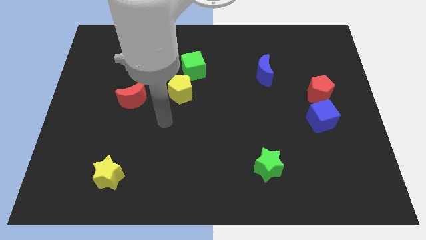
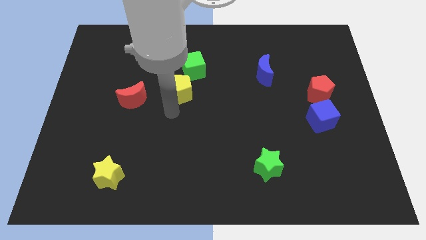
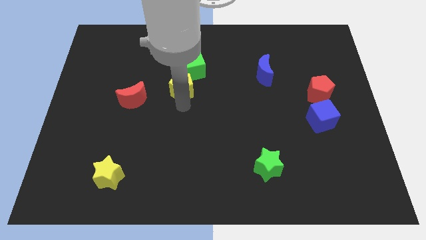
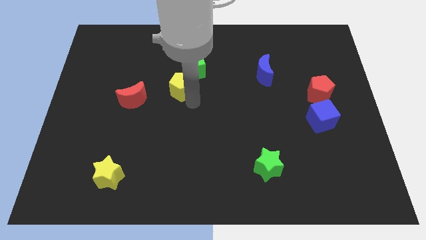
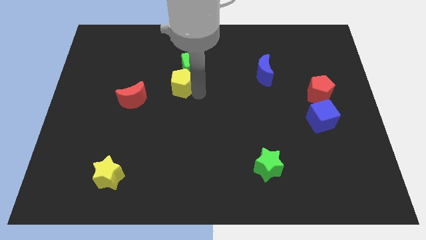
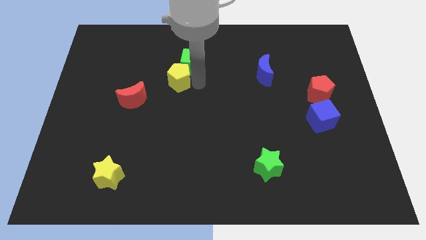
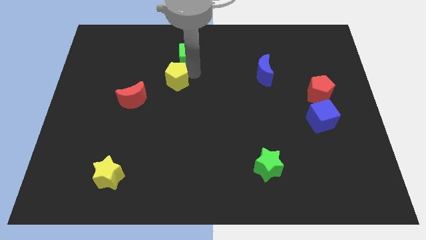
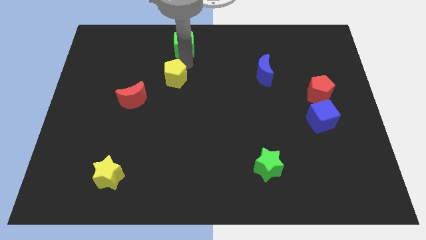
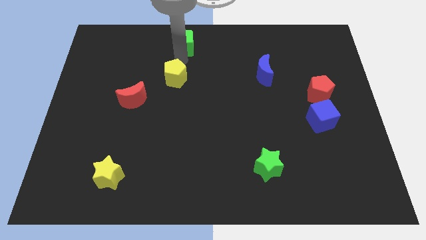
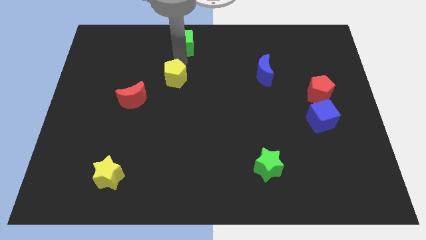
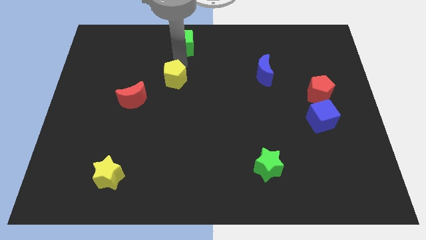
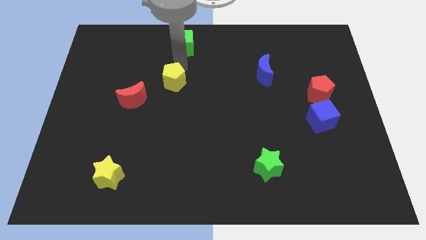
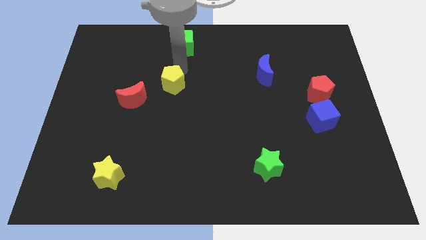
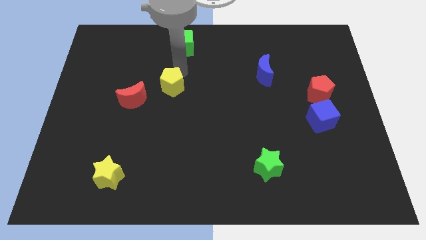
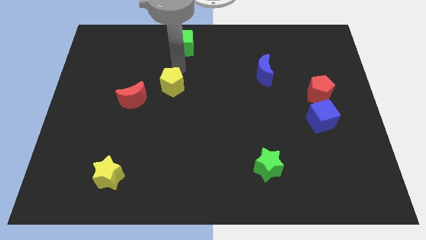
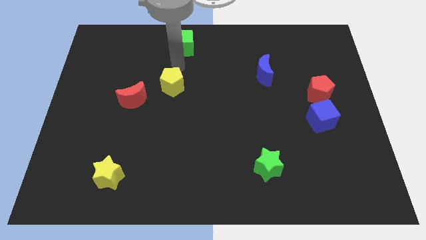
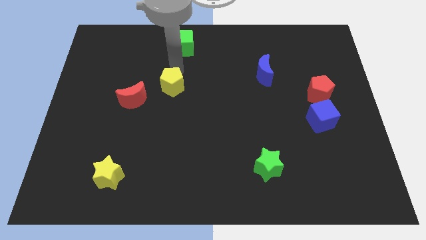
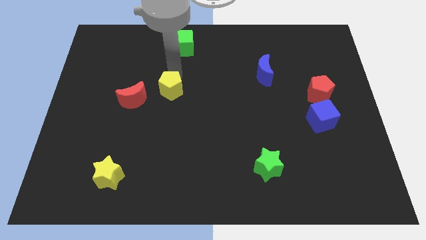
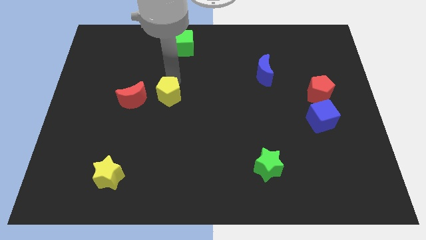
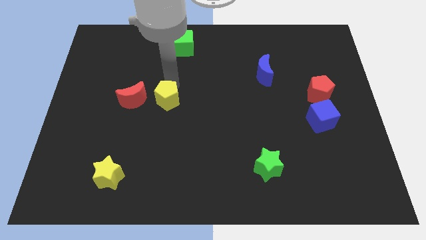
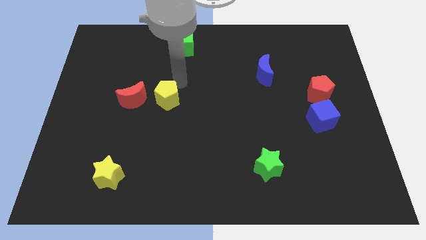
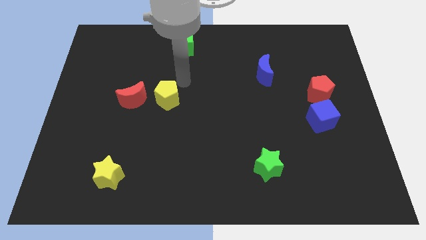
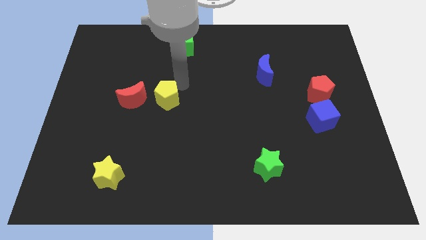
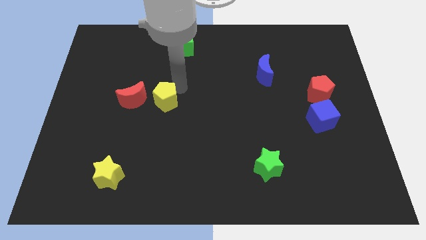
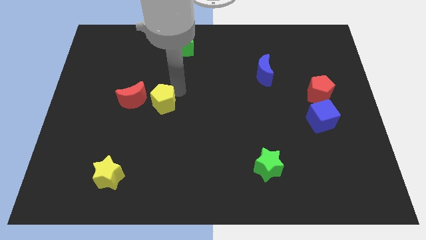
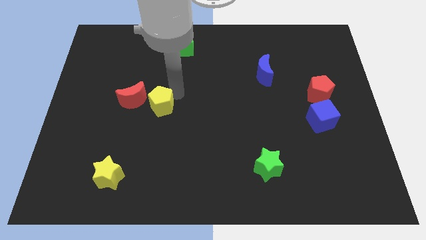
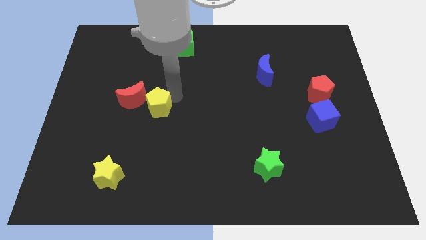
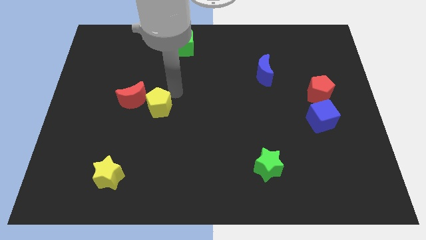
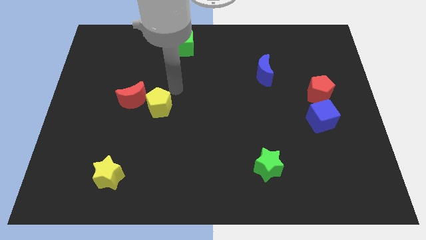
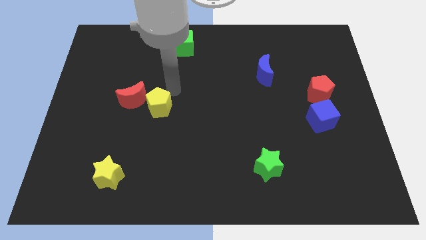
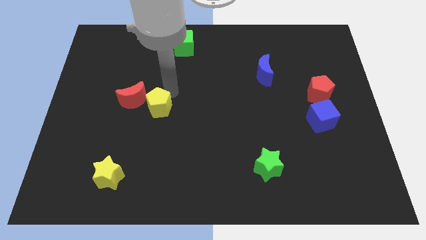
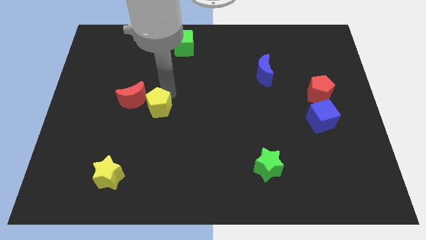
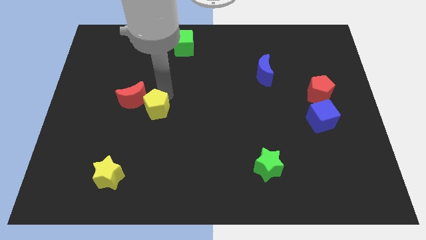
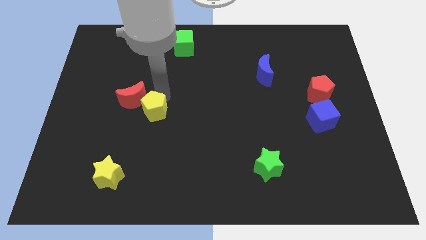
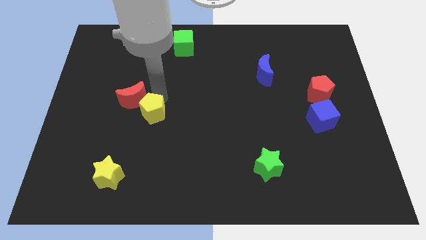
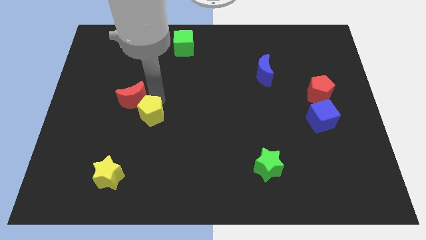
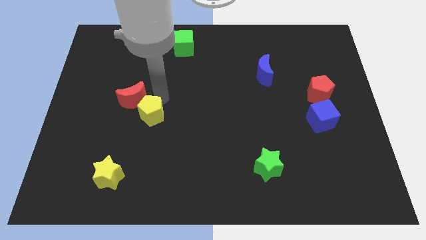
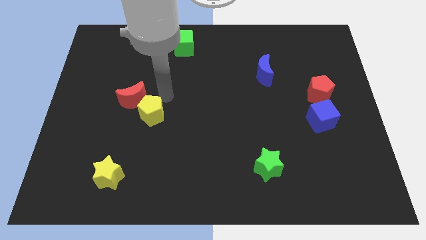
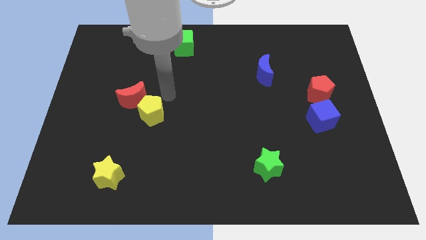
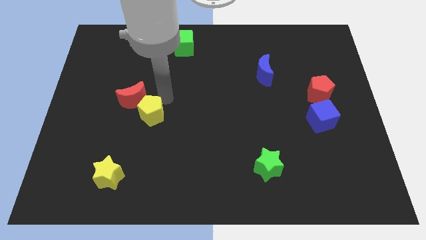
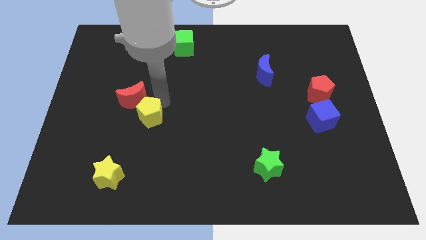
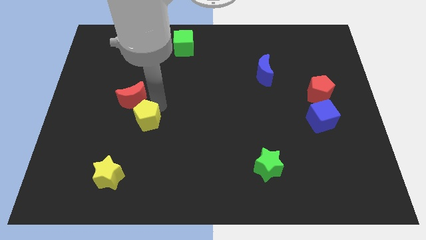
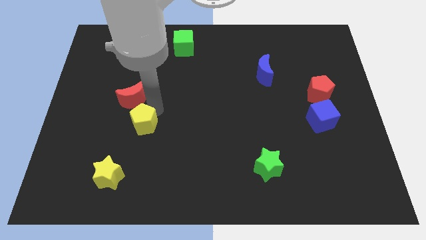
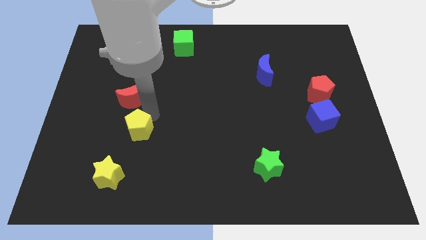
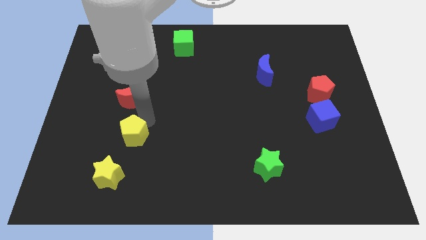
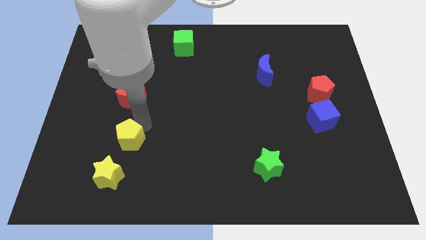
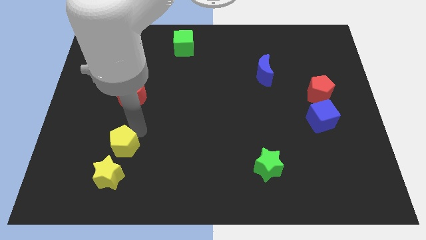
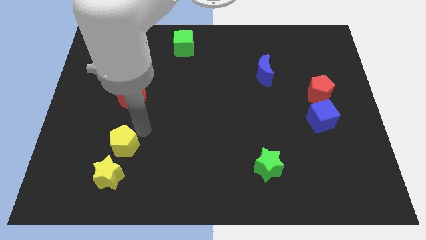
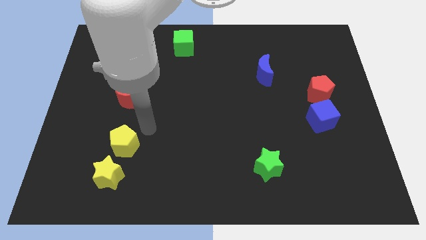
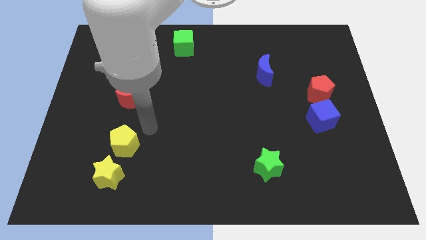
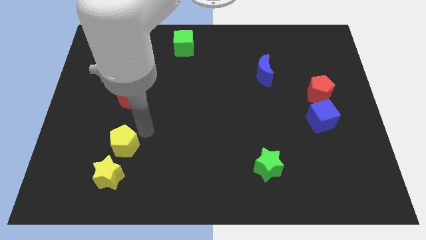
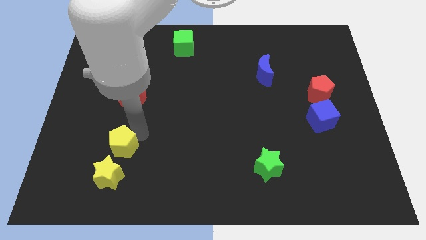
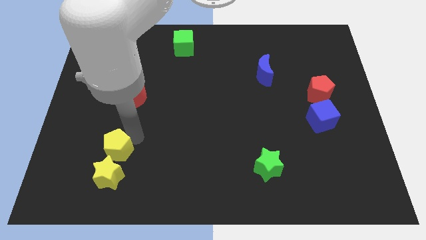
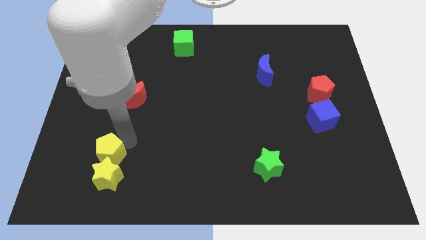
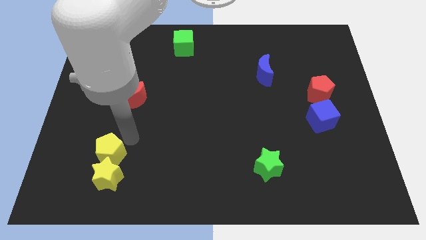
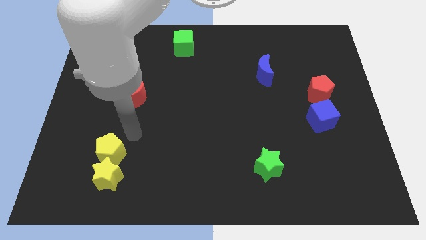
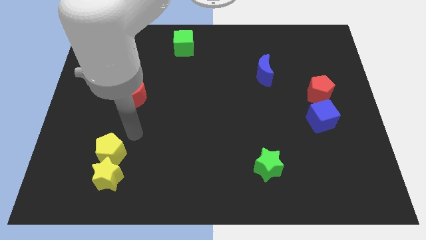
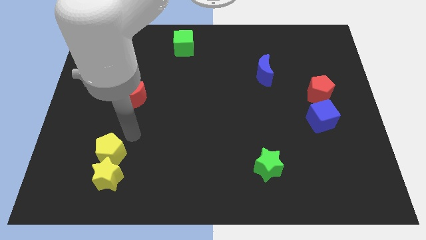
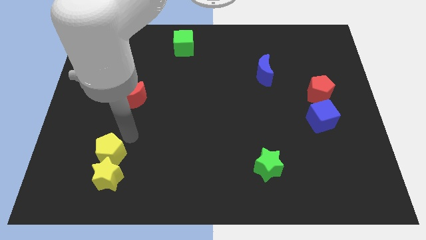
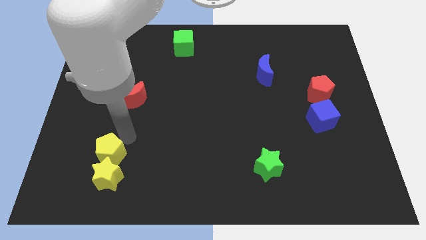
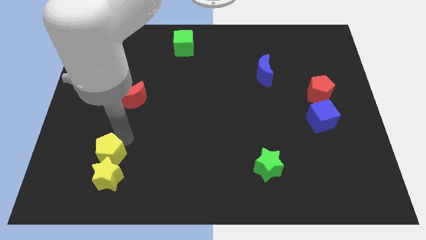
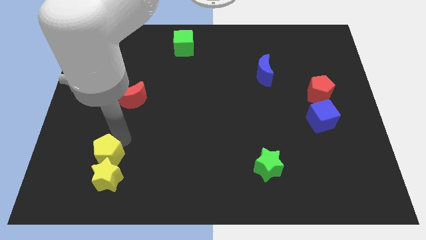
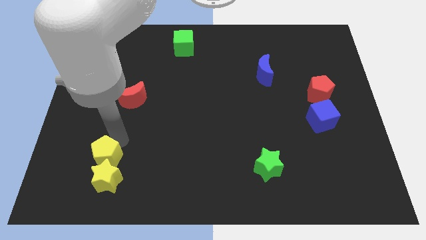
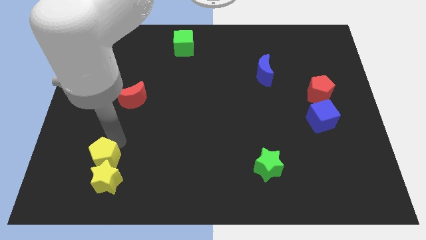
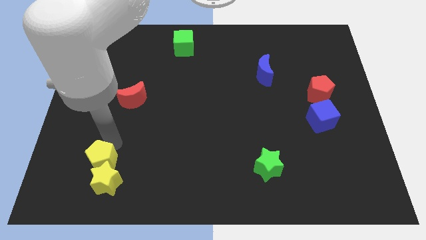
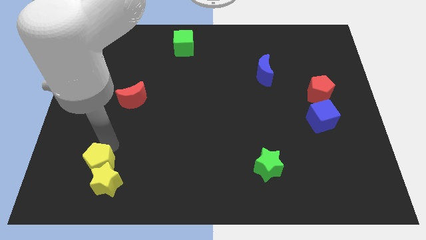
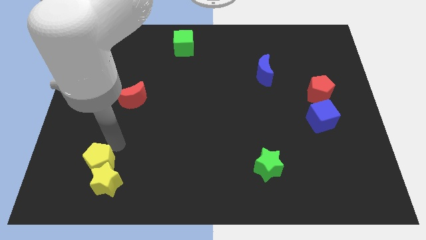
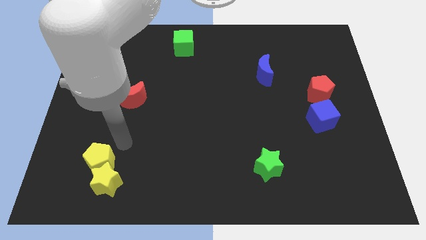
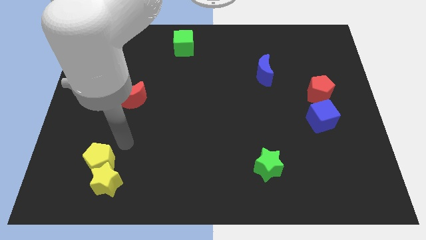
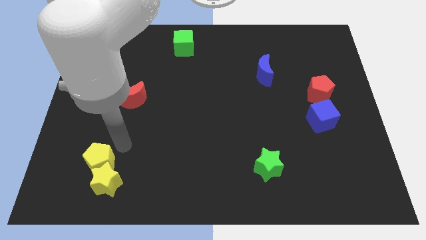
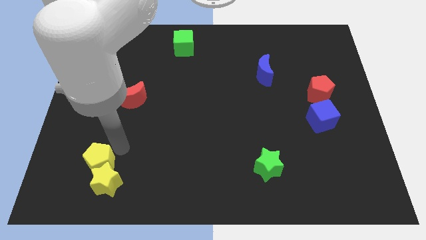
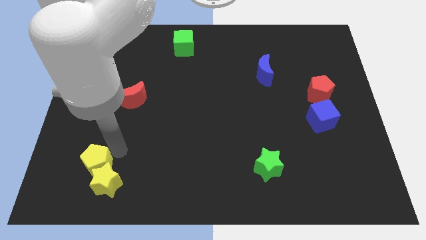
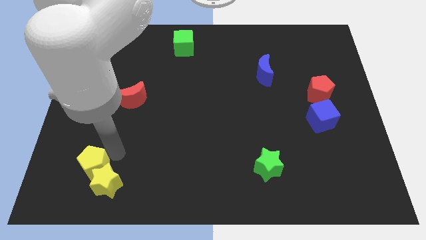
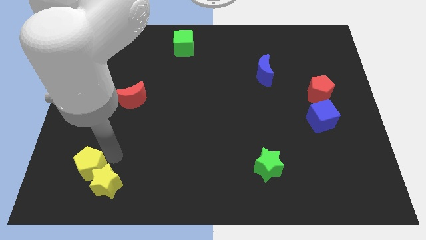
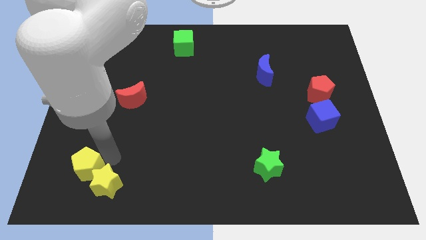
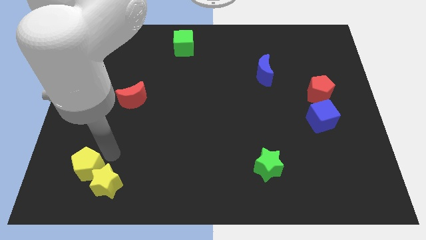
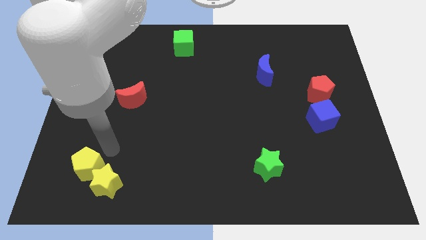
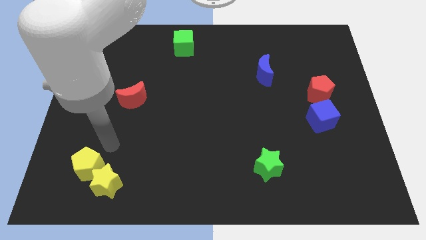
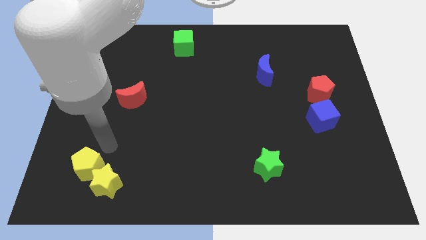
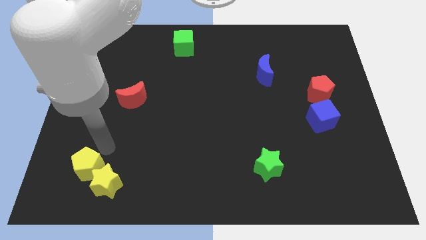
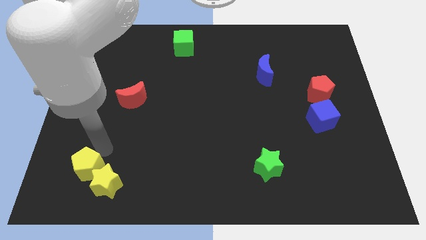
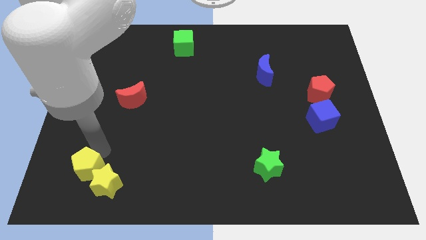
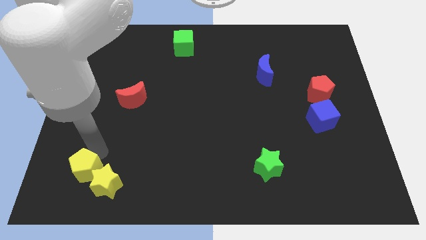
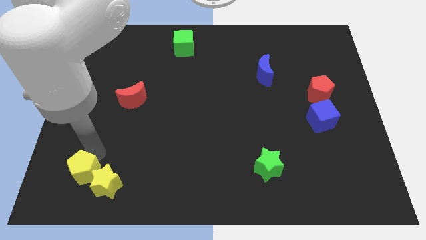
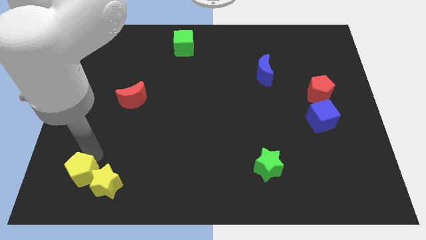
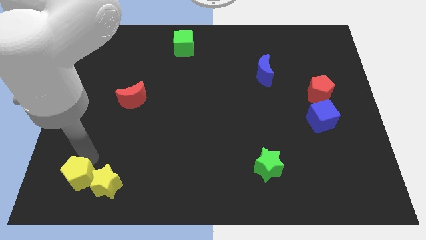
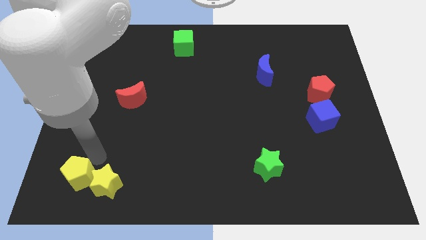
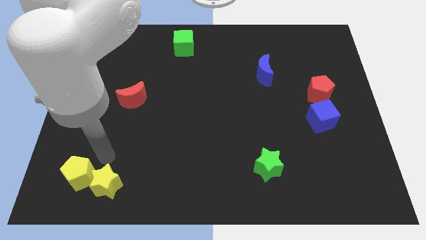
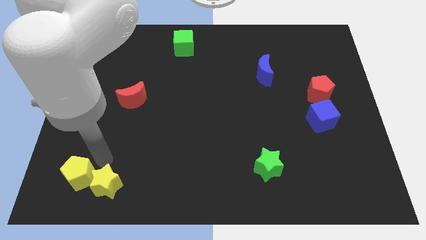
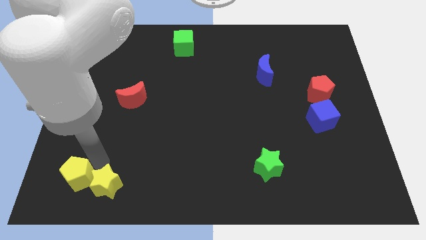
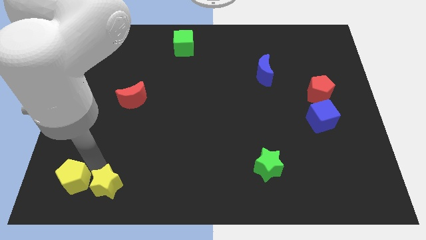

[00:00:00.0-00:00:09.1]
put the yellow pentagon to the bottom left of the board
